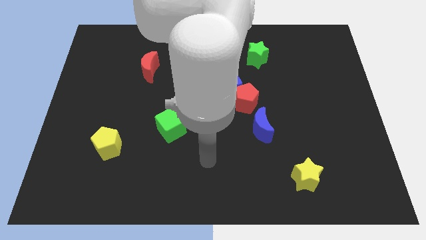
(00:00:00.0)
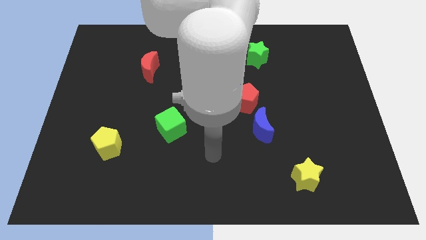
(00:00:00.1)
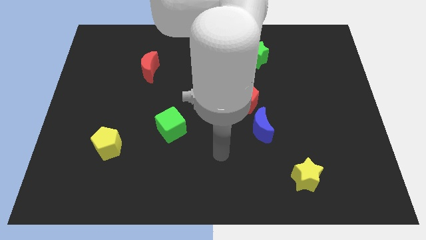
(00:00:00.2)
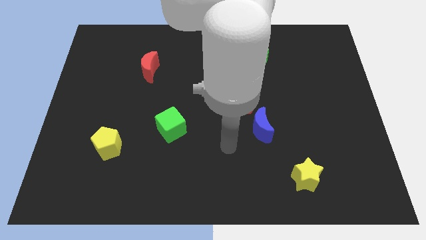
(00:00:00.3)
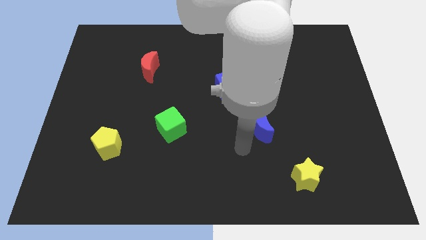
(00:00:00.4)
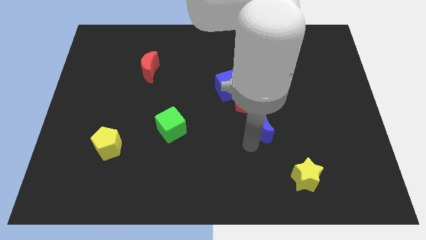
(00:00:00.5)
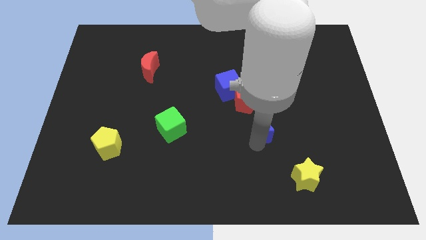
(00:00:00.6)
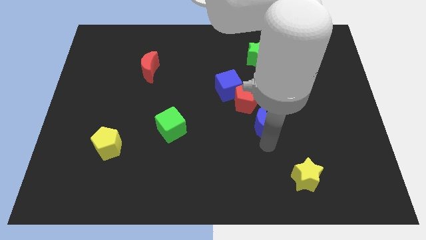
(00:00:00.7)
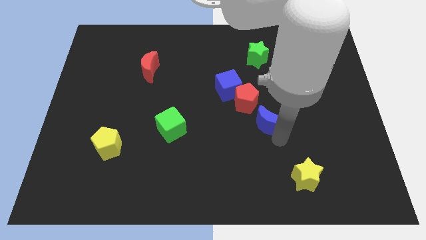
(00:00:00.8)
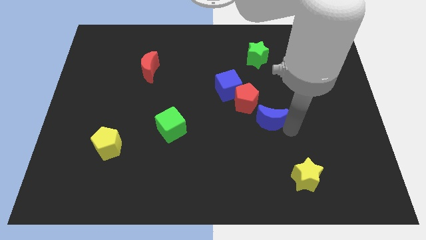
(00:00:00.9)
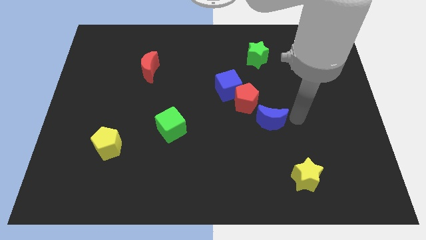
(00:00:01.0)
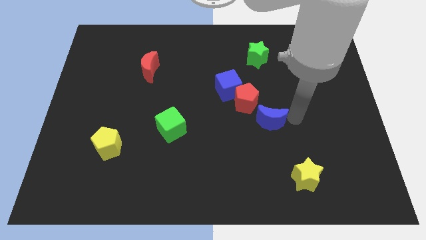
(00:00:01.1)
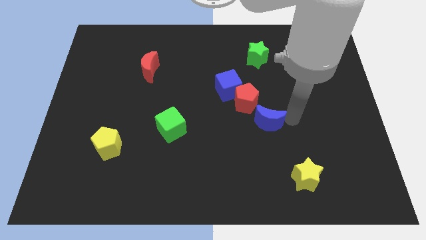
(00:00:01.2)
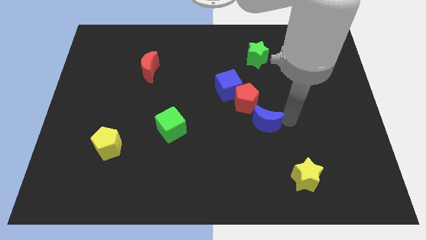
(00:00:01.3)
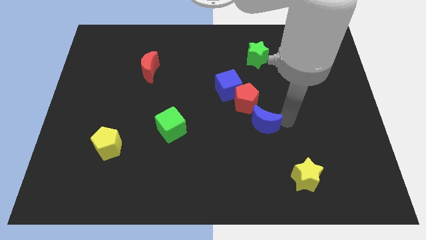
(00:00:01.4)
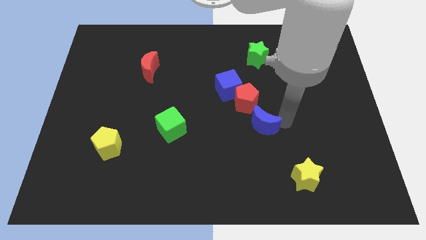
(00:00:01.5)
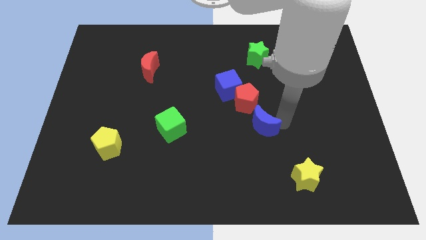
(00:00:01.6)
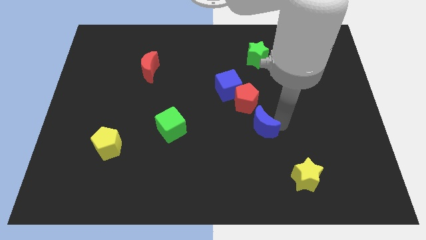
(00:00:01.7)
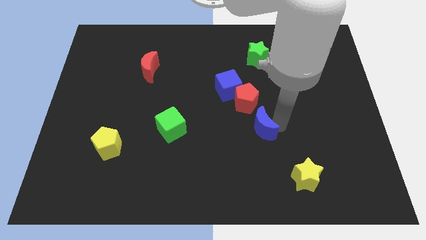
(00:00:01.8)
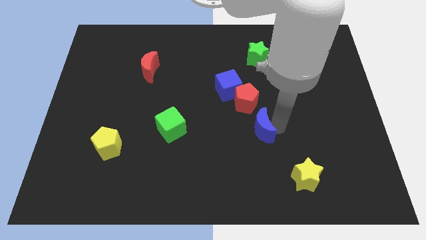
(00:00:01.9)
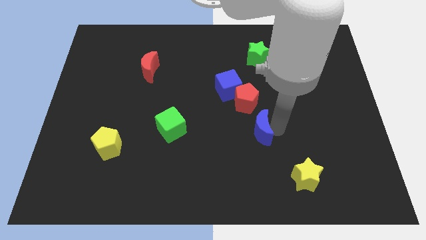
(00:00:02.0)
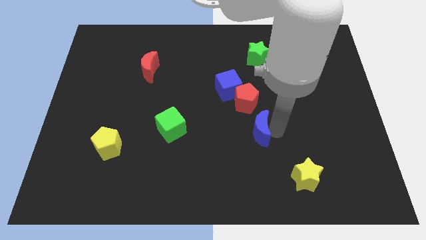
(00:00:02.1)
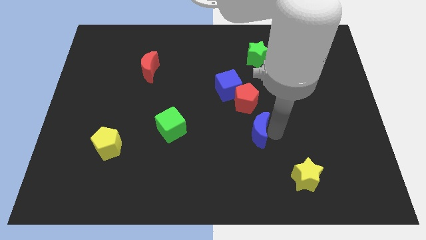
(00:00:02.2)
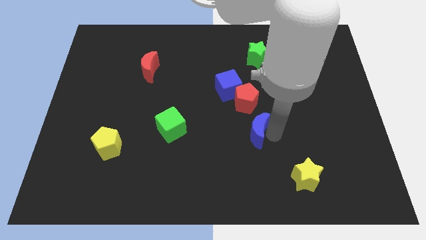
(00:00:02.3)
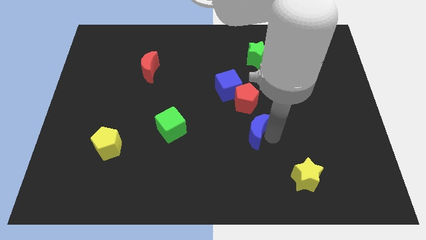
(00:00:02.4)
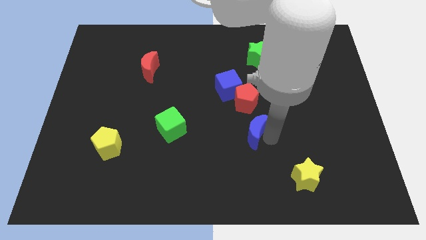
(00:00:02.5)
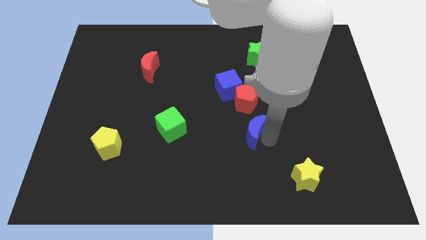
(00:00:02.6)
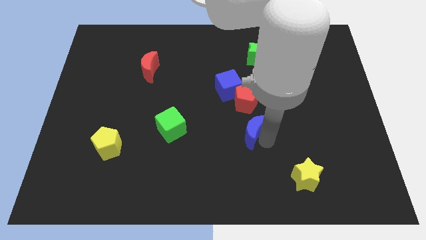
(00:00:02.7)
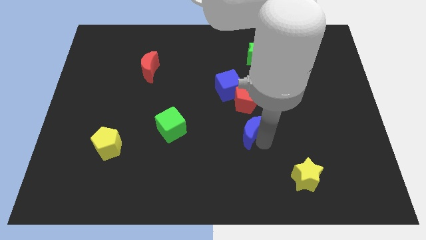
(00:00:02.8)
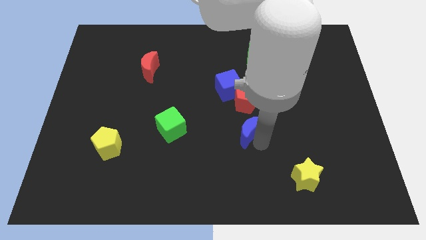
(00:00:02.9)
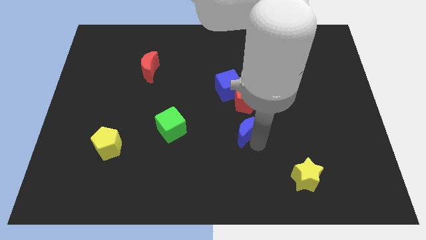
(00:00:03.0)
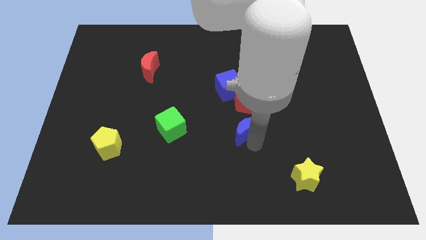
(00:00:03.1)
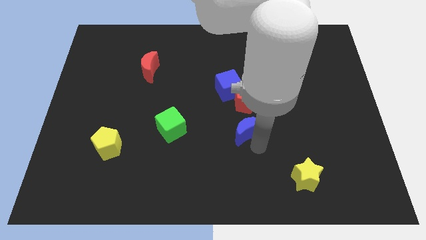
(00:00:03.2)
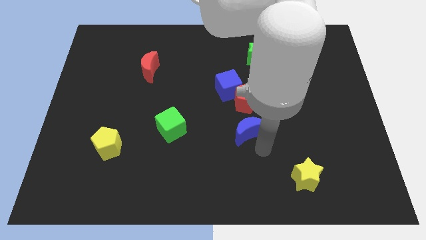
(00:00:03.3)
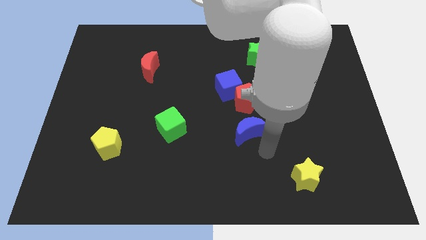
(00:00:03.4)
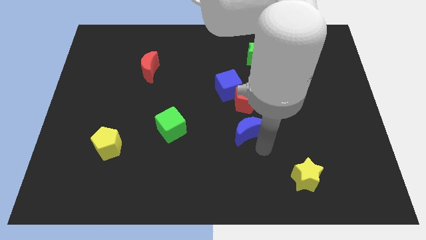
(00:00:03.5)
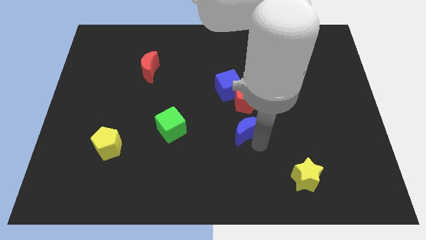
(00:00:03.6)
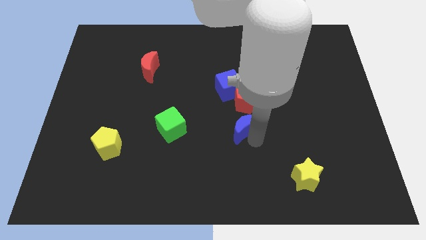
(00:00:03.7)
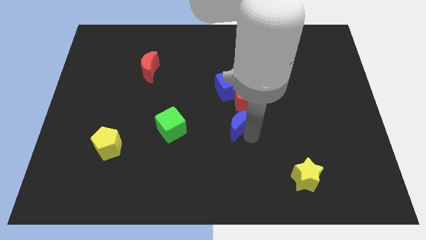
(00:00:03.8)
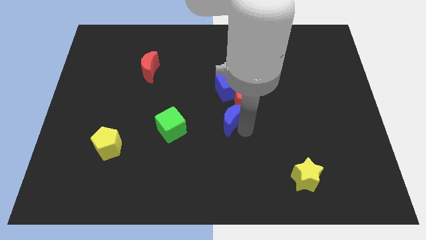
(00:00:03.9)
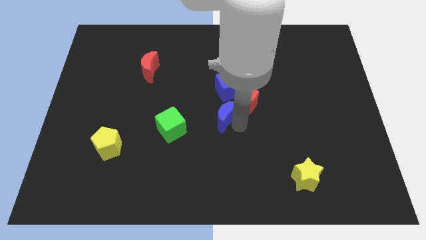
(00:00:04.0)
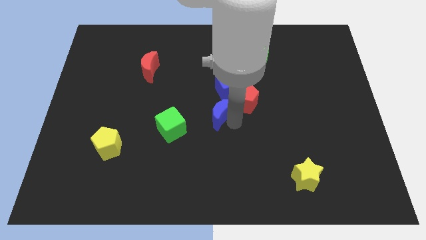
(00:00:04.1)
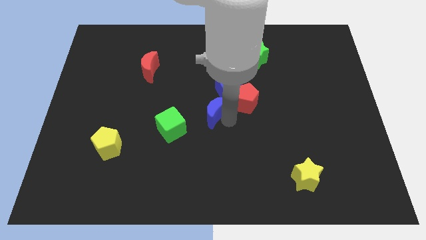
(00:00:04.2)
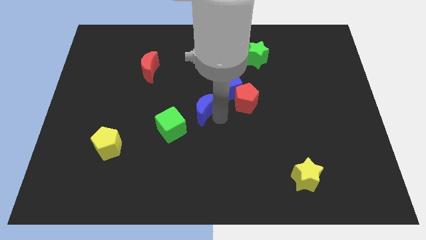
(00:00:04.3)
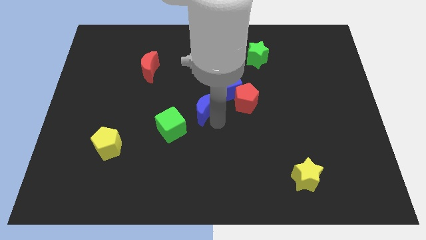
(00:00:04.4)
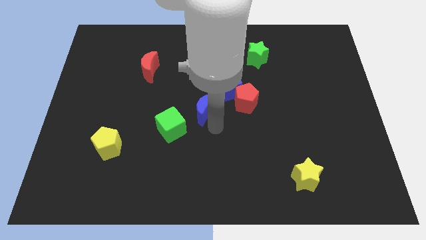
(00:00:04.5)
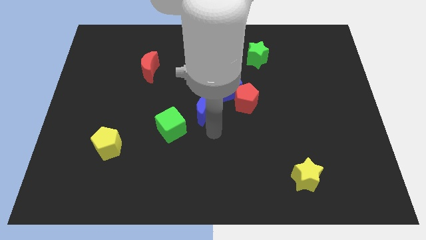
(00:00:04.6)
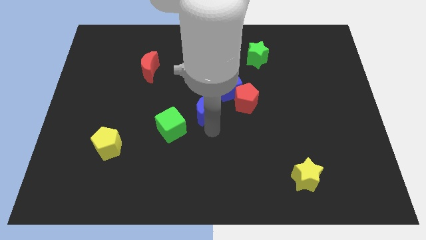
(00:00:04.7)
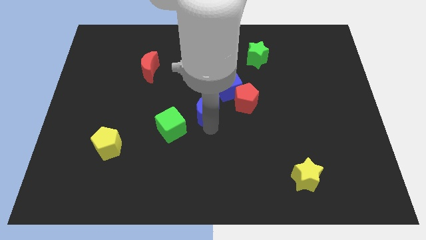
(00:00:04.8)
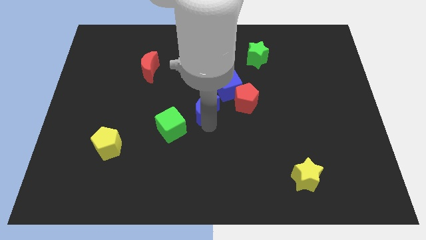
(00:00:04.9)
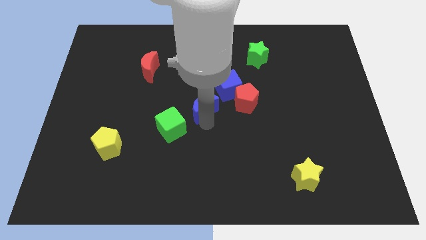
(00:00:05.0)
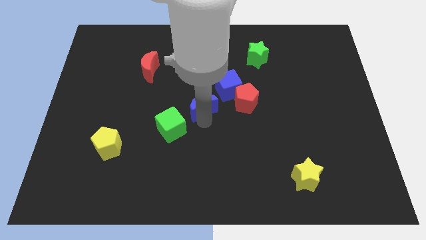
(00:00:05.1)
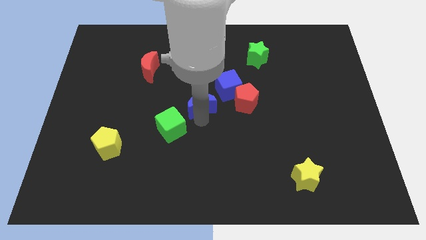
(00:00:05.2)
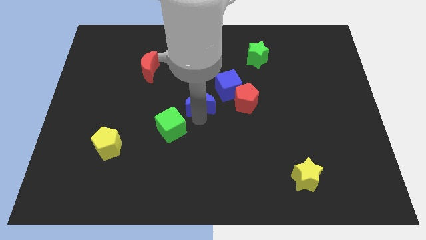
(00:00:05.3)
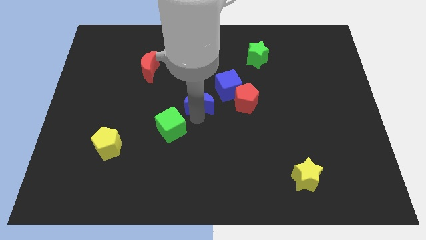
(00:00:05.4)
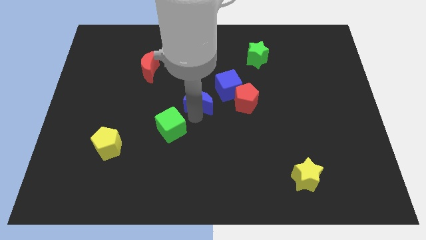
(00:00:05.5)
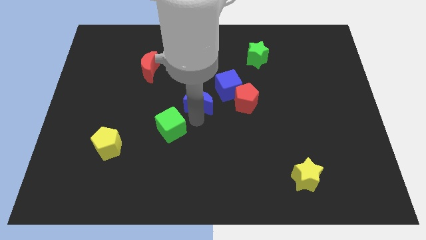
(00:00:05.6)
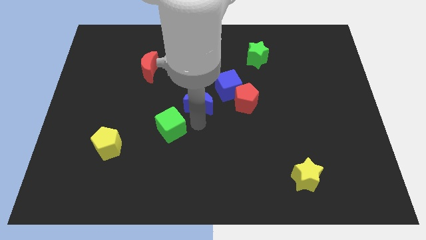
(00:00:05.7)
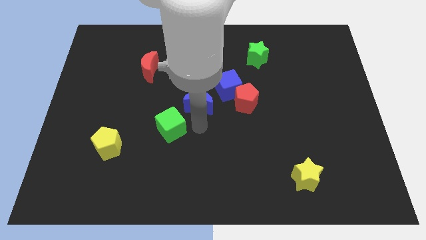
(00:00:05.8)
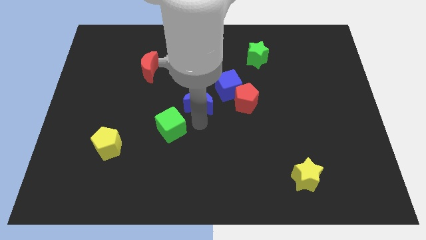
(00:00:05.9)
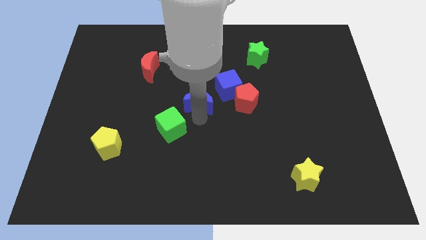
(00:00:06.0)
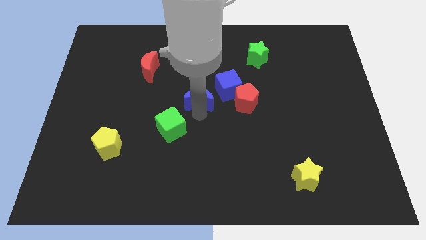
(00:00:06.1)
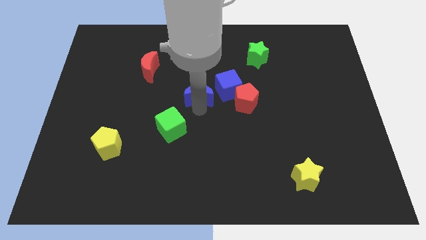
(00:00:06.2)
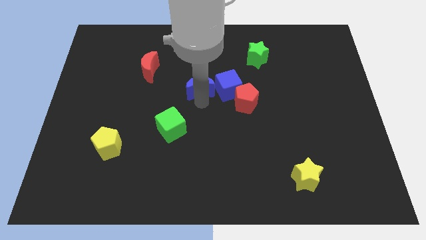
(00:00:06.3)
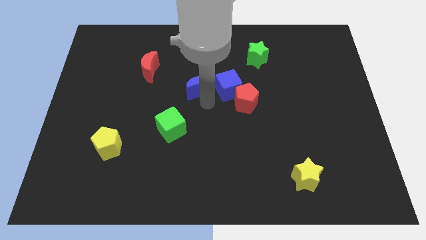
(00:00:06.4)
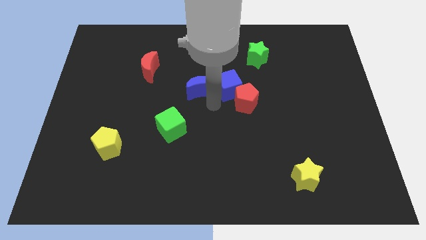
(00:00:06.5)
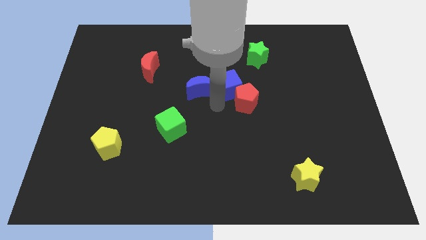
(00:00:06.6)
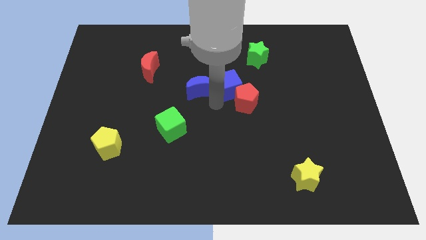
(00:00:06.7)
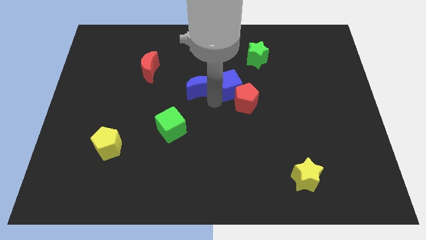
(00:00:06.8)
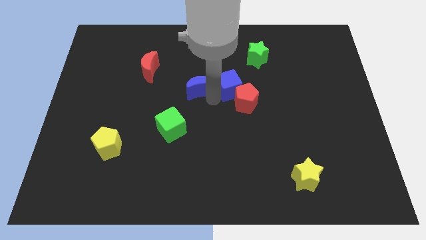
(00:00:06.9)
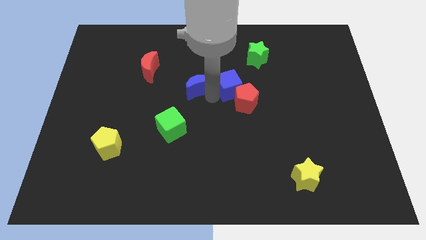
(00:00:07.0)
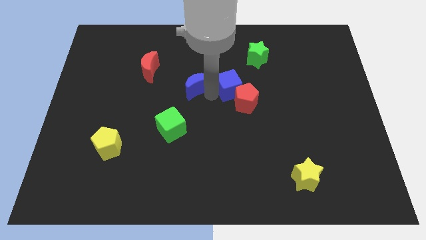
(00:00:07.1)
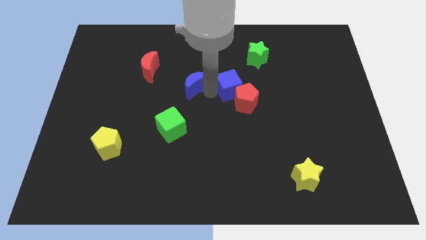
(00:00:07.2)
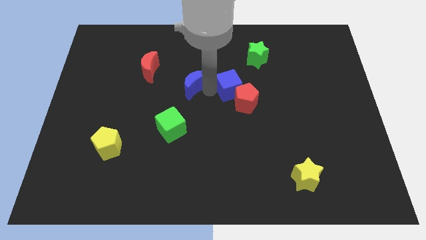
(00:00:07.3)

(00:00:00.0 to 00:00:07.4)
push the blue moon up and to the left diagonally

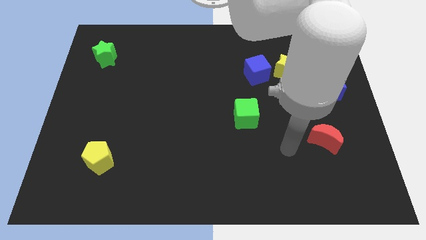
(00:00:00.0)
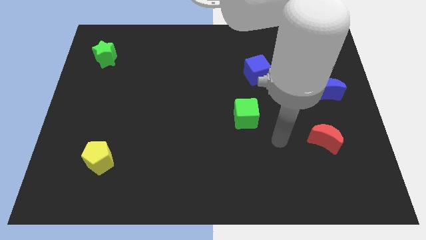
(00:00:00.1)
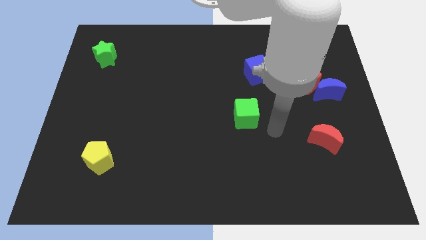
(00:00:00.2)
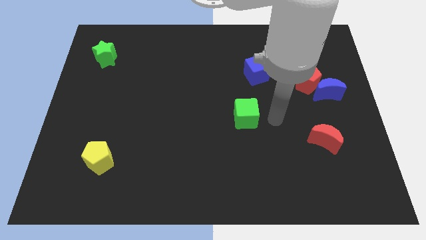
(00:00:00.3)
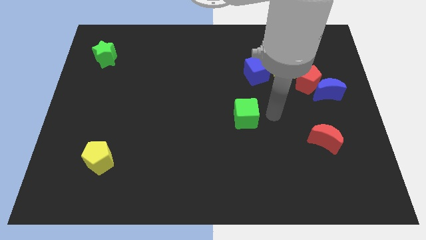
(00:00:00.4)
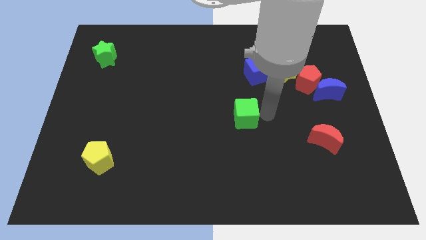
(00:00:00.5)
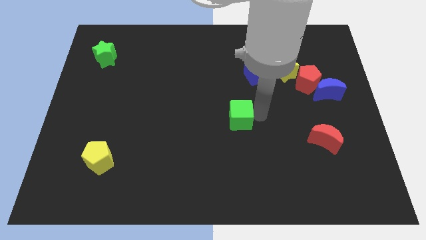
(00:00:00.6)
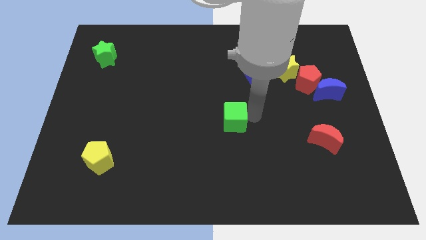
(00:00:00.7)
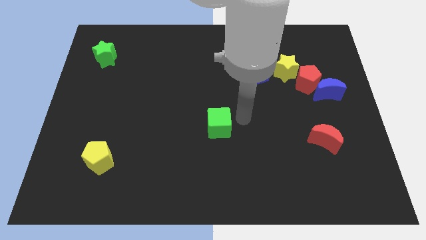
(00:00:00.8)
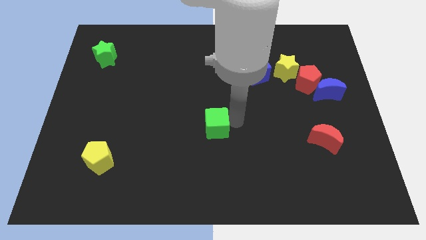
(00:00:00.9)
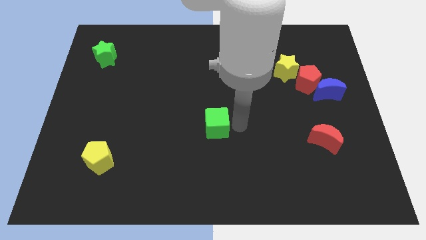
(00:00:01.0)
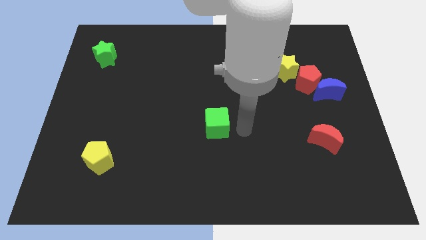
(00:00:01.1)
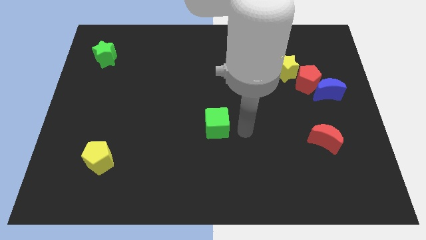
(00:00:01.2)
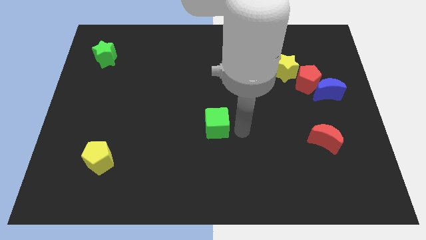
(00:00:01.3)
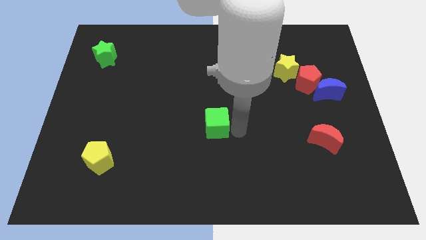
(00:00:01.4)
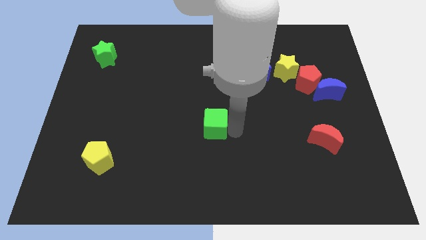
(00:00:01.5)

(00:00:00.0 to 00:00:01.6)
move the green cube a bit to the left
